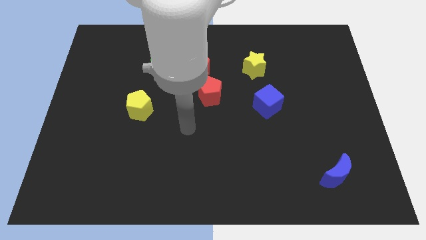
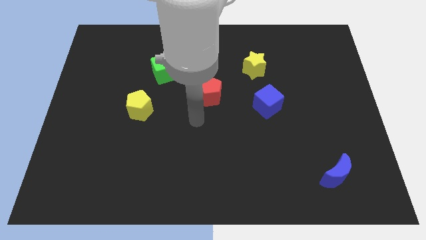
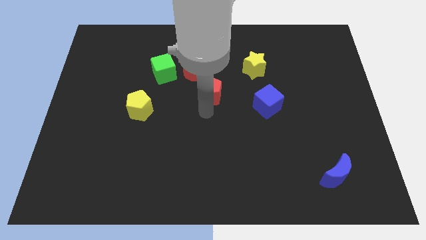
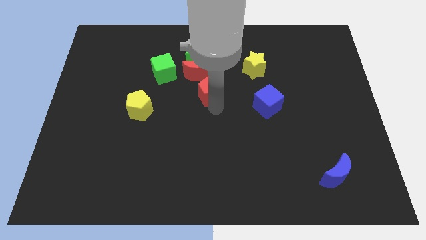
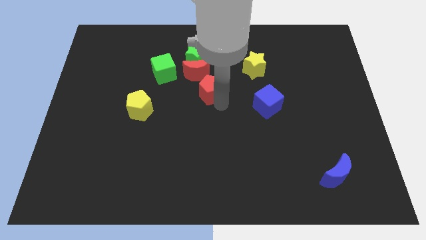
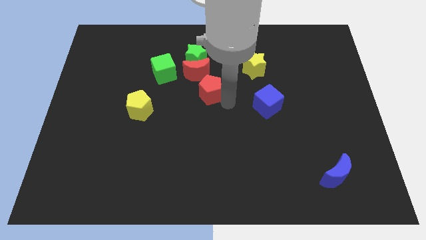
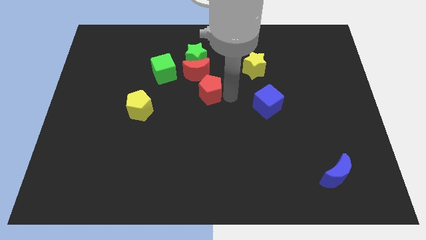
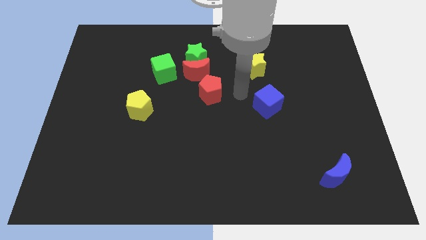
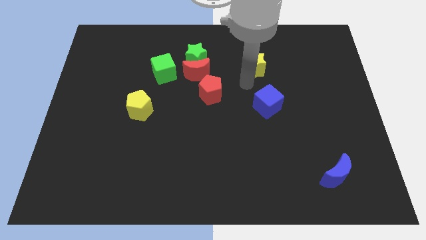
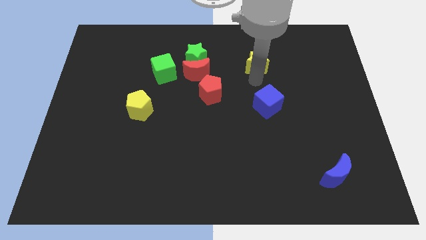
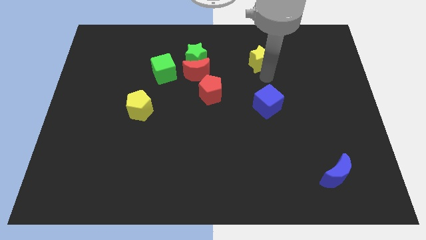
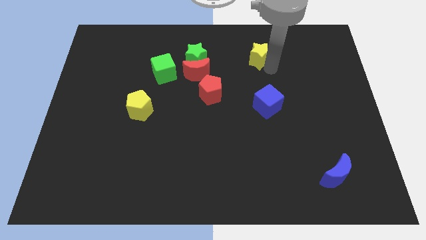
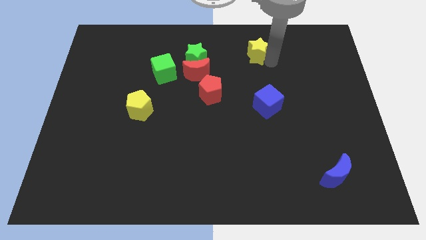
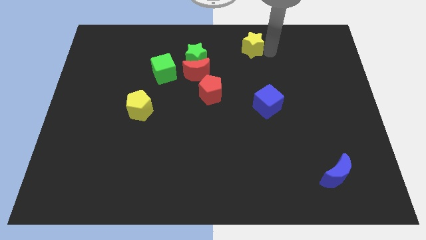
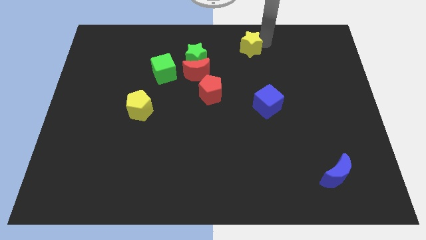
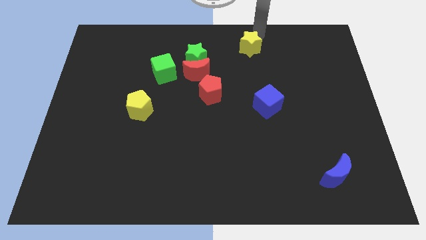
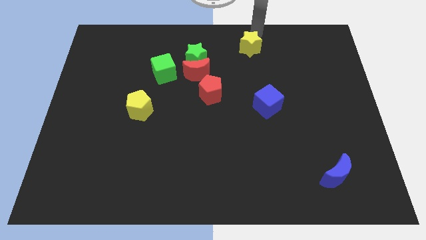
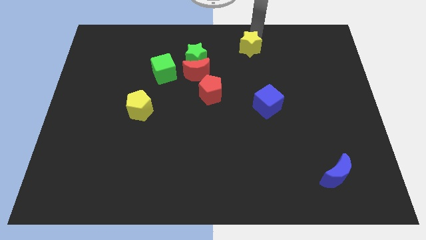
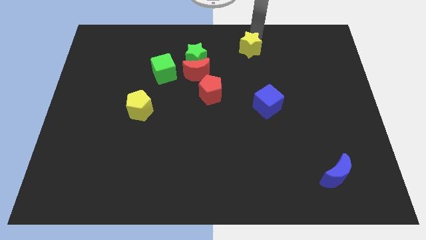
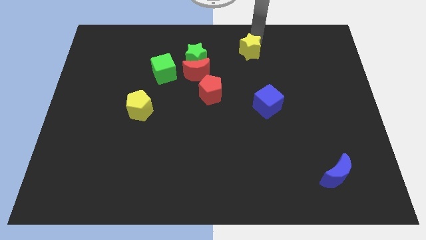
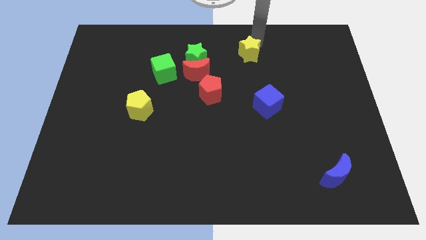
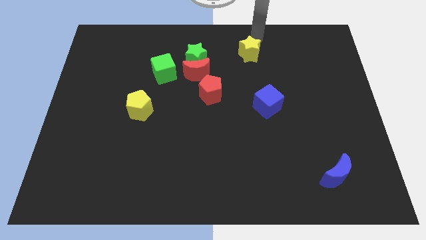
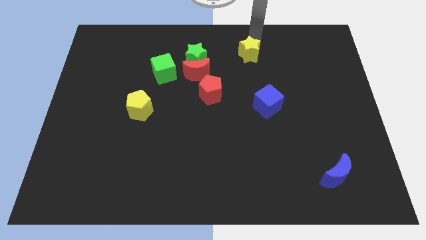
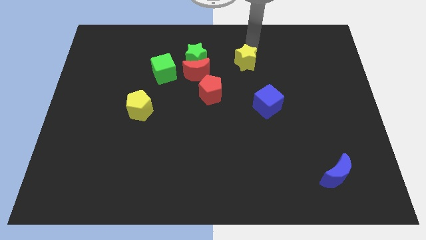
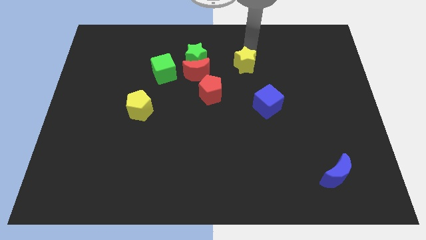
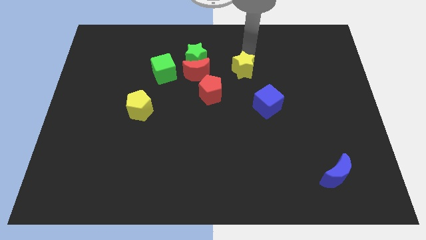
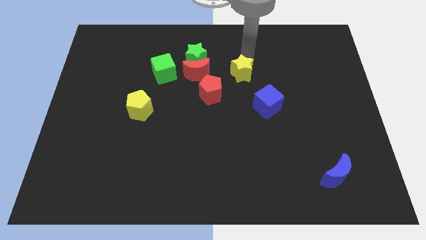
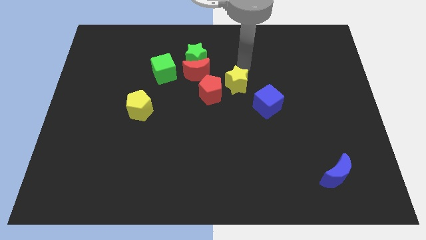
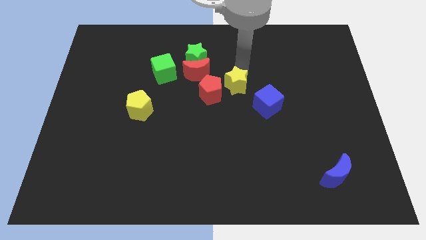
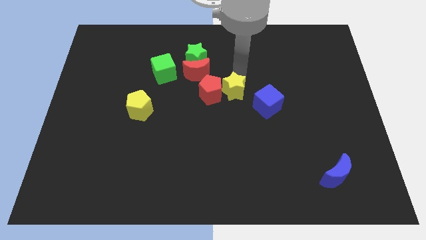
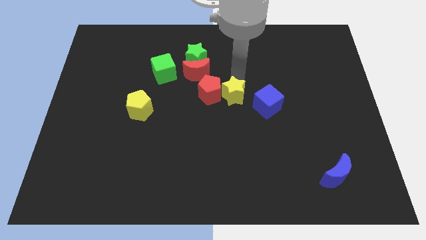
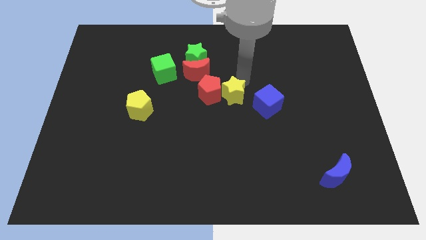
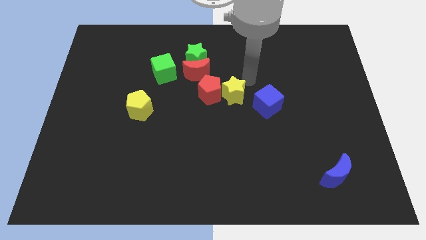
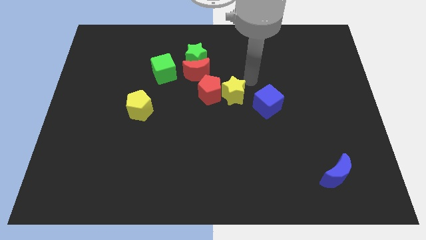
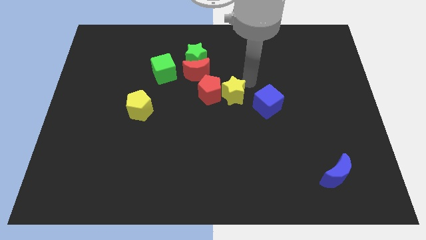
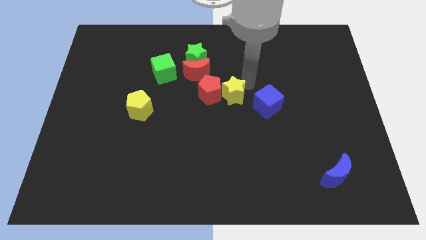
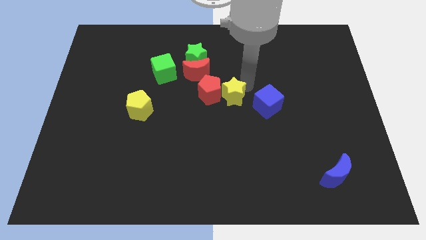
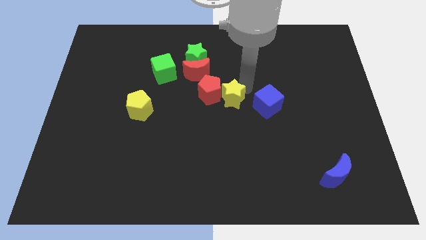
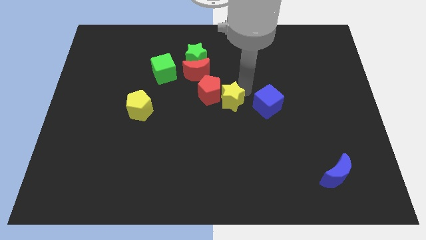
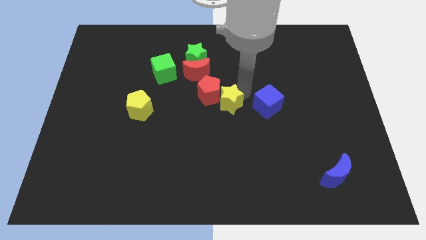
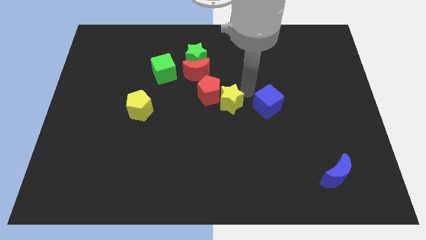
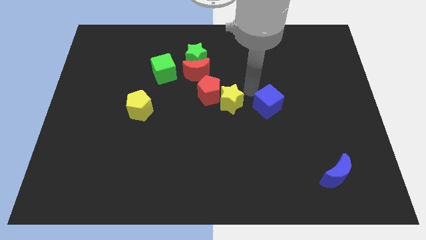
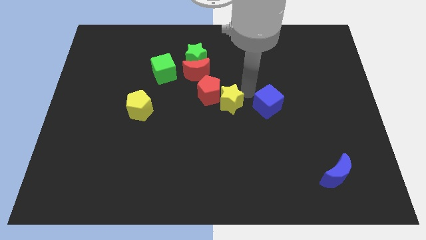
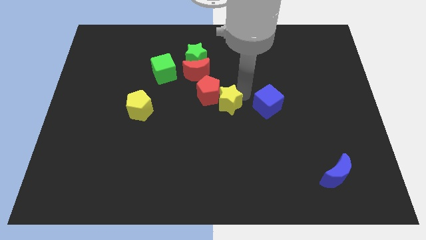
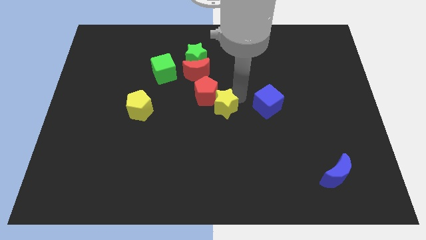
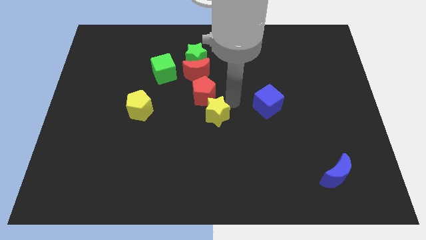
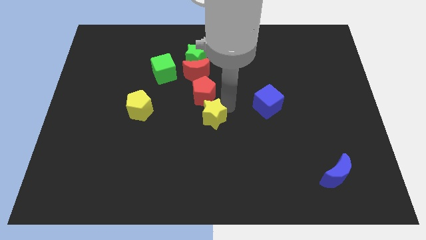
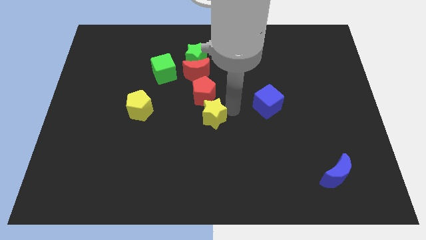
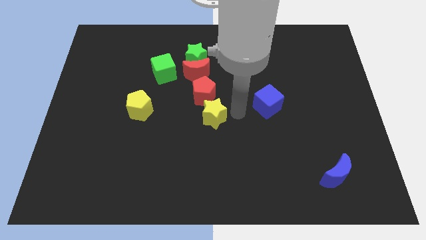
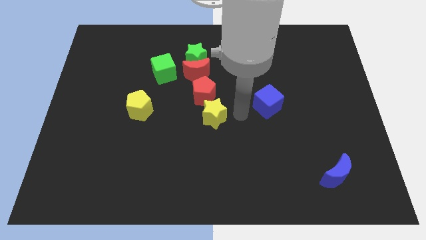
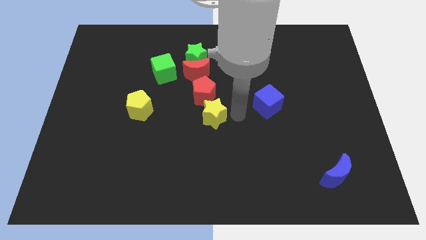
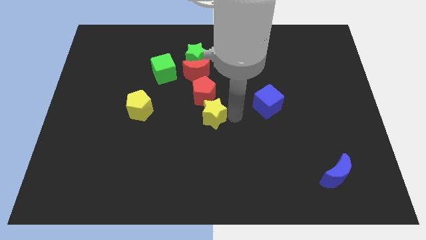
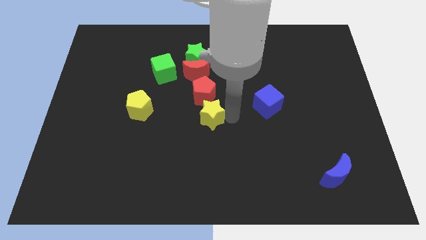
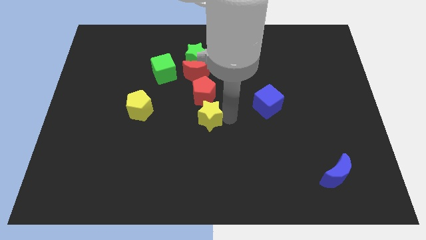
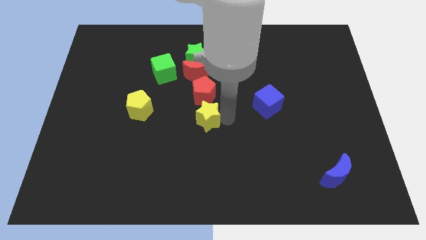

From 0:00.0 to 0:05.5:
move the yellow star down and to the left diagonally

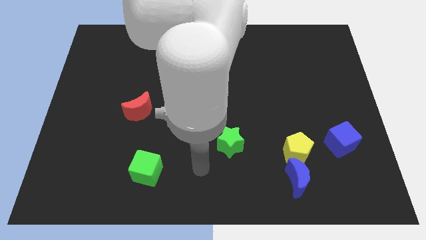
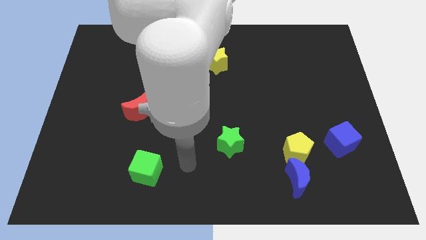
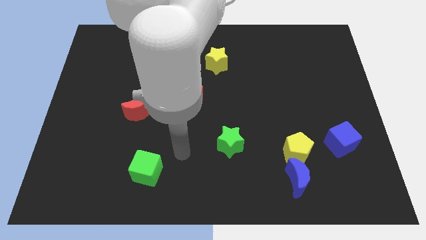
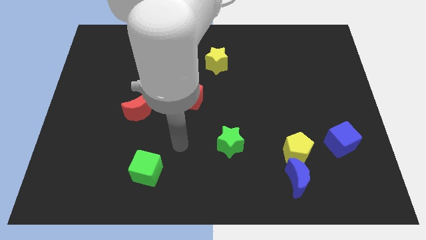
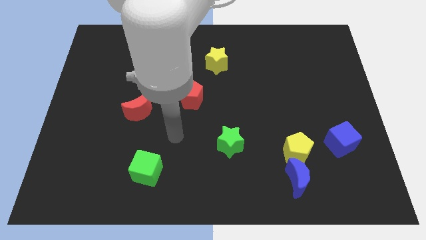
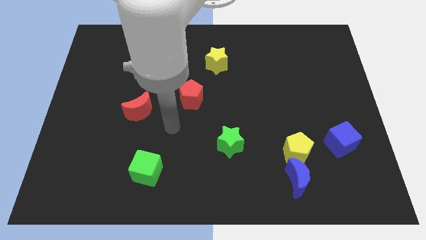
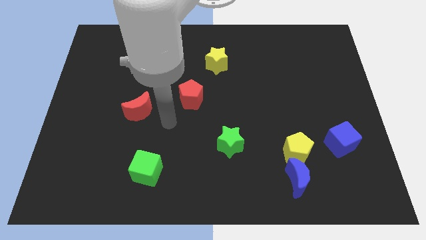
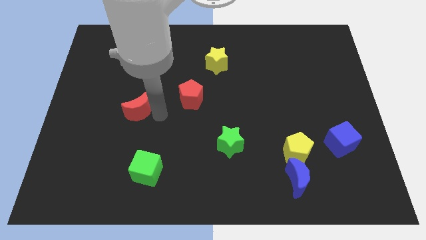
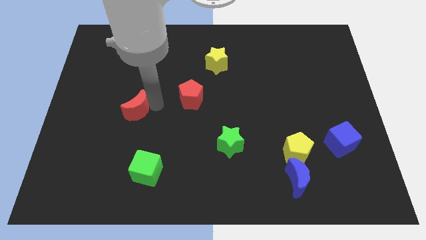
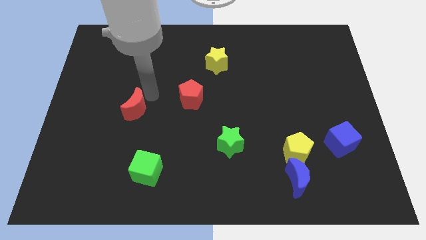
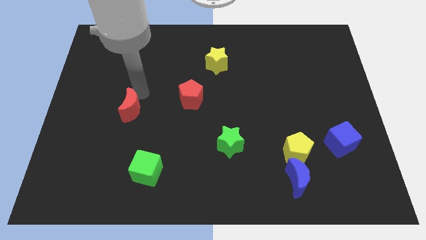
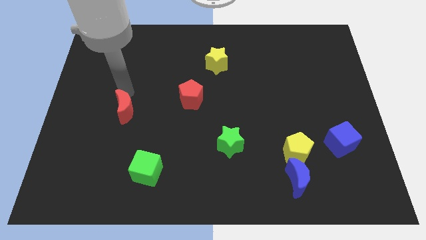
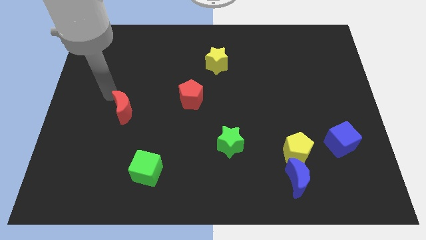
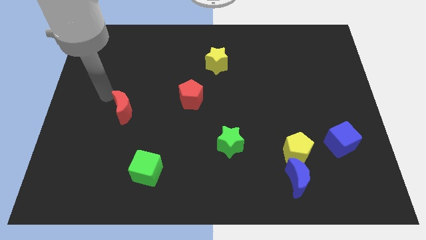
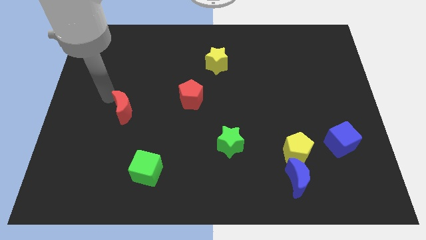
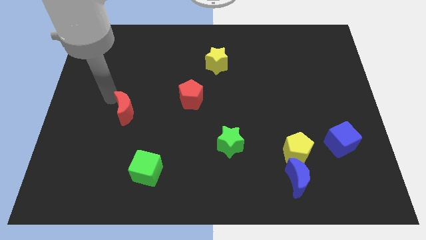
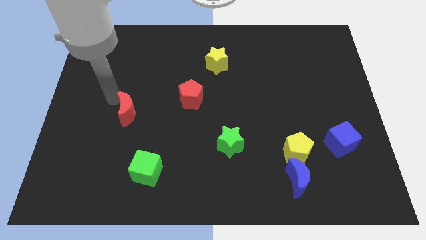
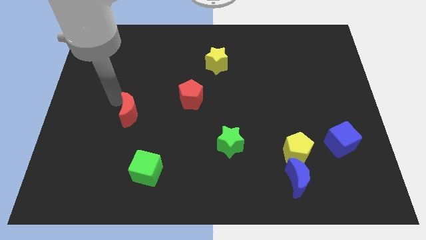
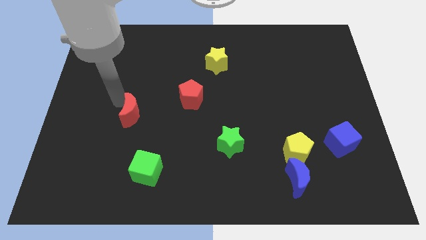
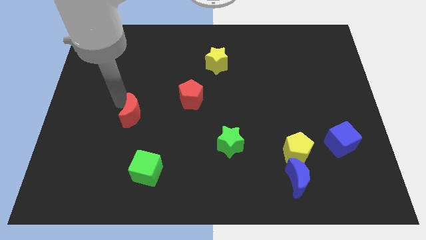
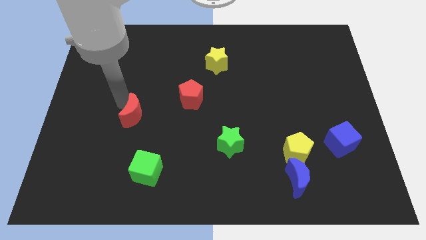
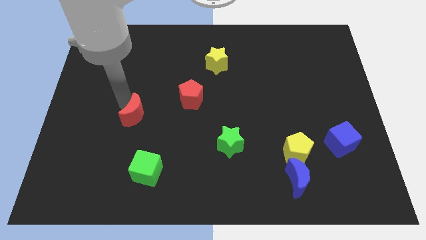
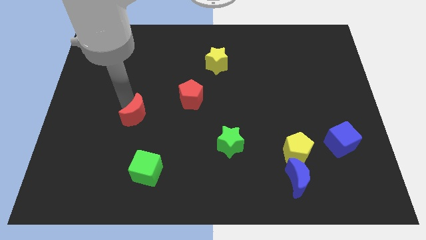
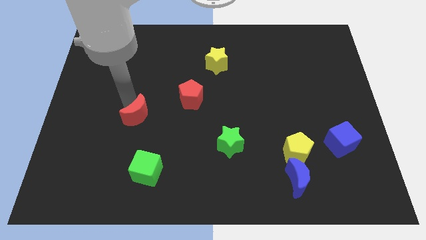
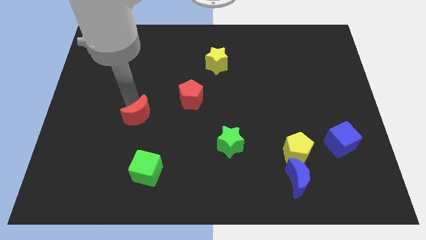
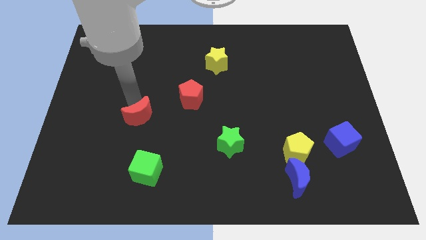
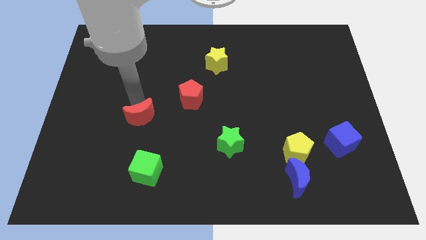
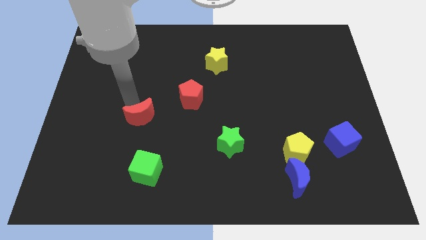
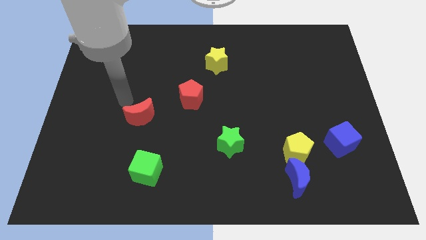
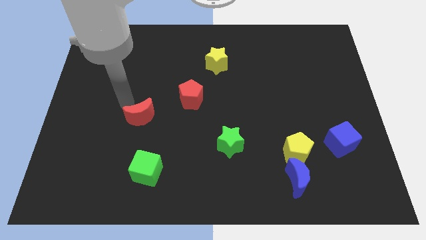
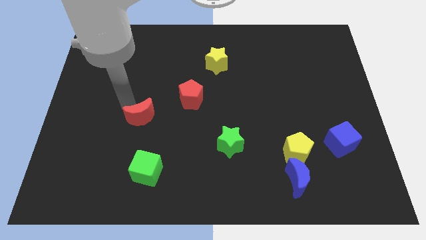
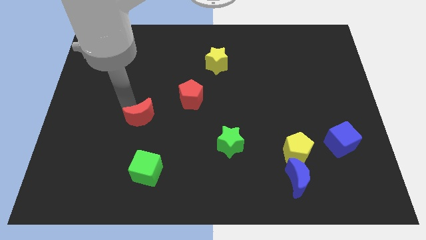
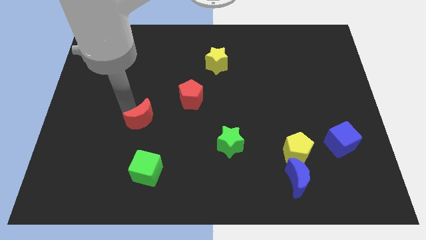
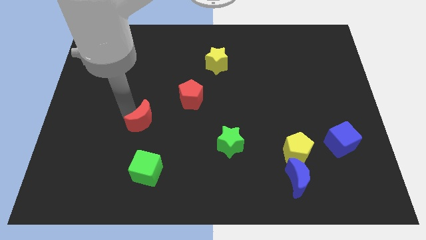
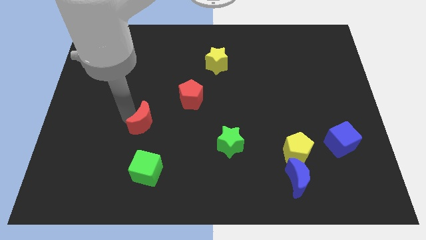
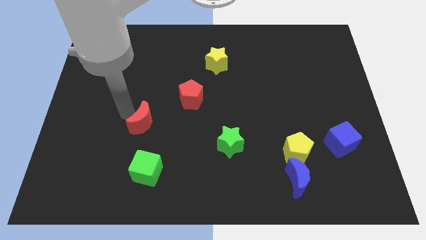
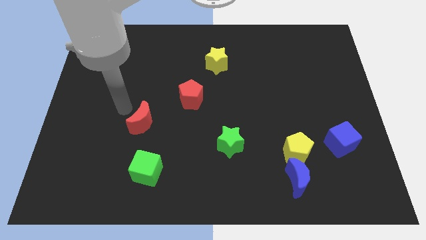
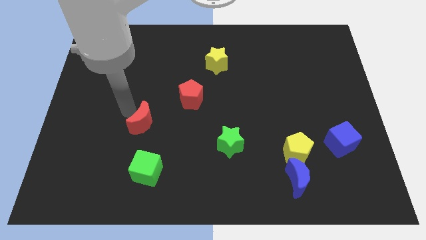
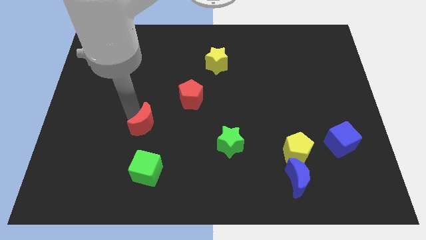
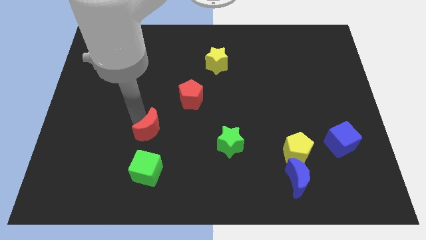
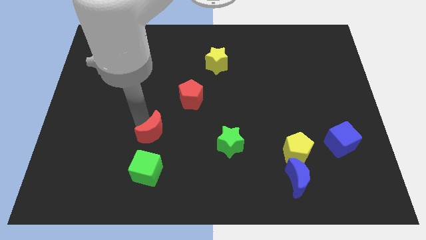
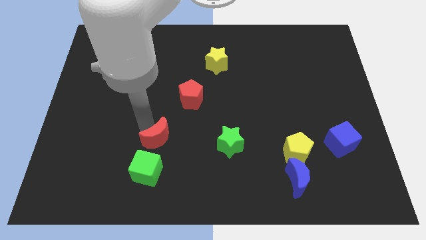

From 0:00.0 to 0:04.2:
slightly move the red moon diagonally down and right
